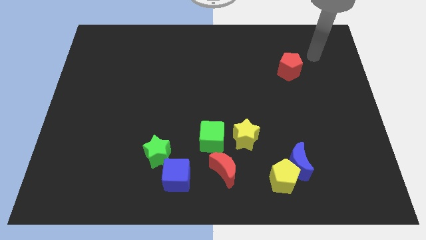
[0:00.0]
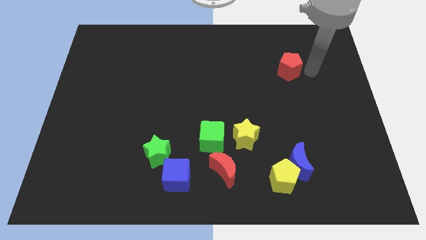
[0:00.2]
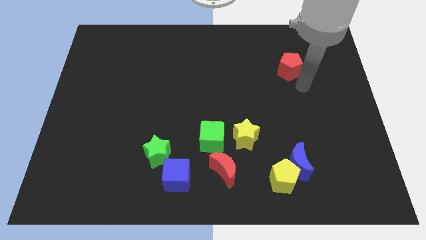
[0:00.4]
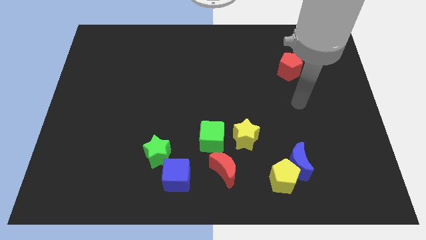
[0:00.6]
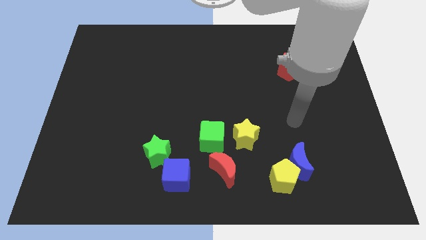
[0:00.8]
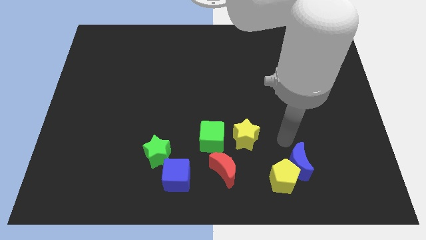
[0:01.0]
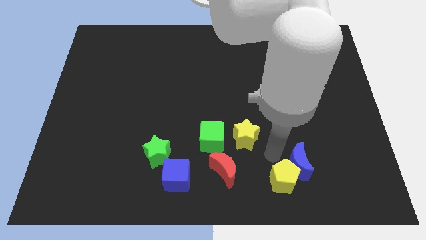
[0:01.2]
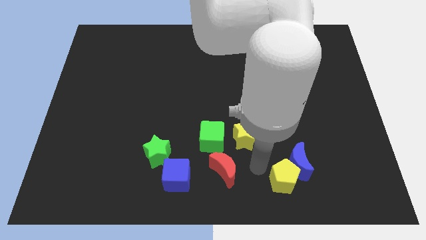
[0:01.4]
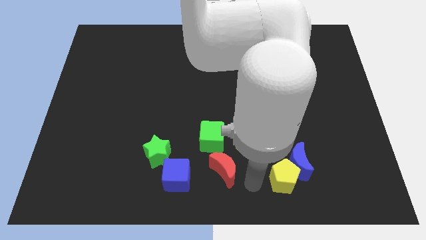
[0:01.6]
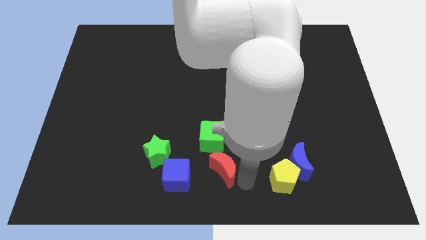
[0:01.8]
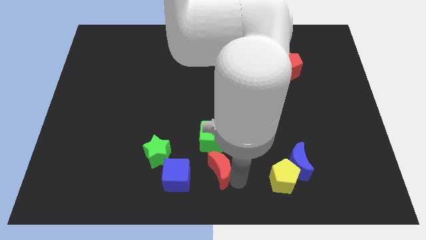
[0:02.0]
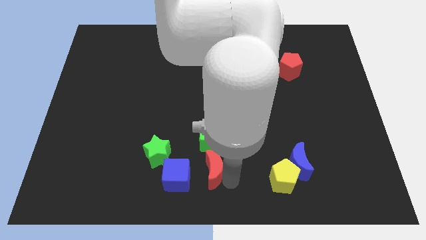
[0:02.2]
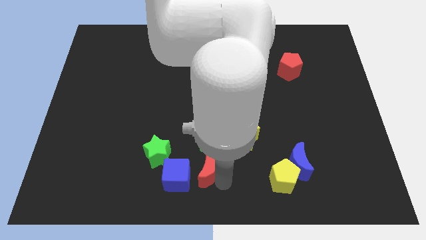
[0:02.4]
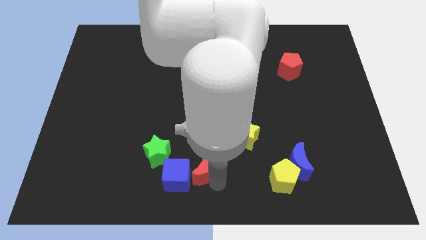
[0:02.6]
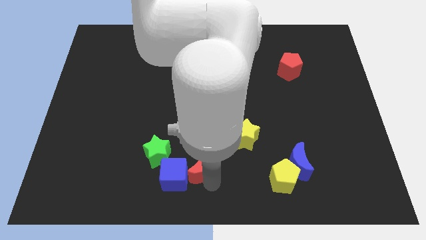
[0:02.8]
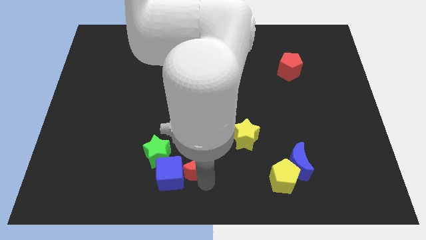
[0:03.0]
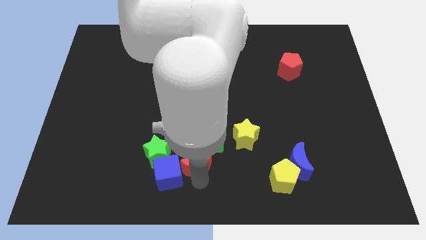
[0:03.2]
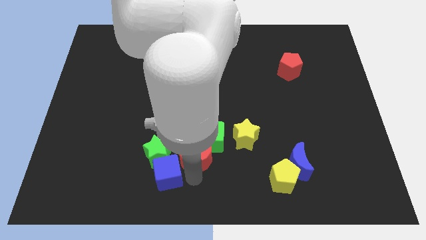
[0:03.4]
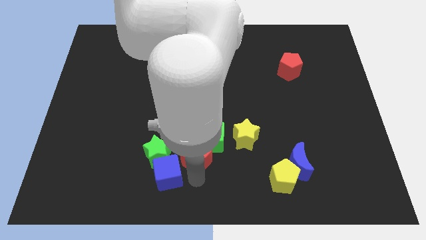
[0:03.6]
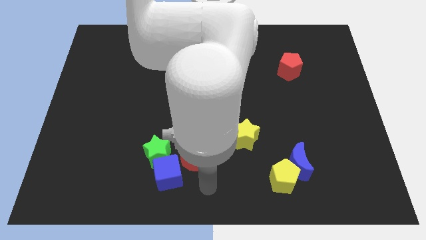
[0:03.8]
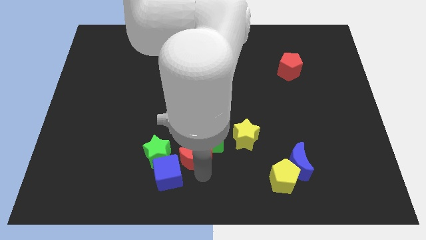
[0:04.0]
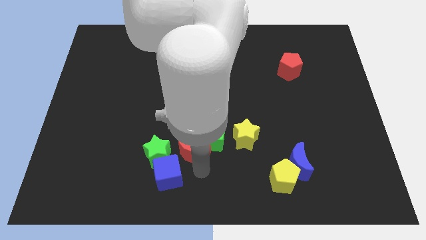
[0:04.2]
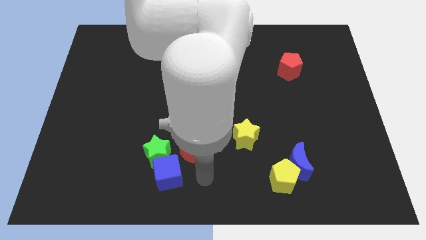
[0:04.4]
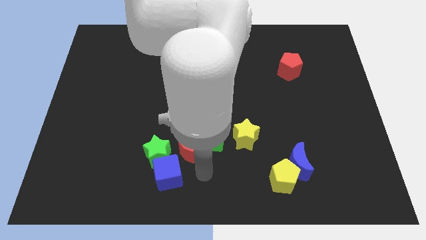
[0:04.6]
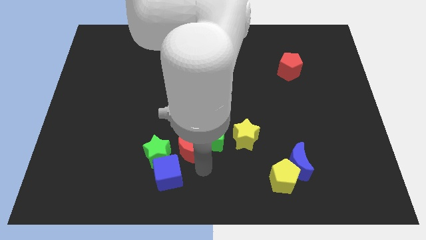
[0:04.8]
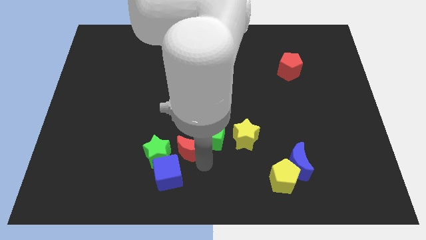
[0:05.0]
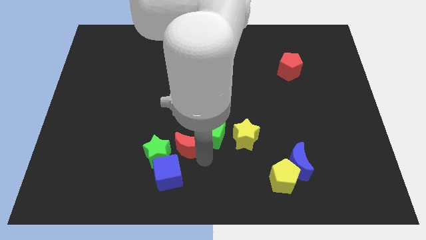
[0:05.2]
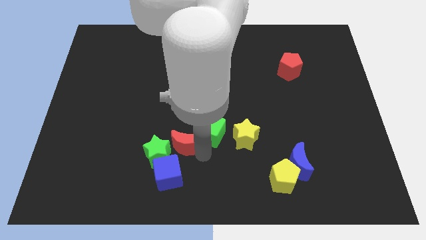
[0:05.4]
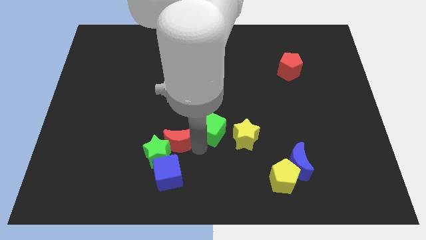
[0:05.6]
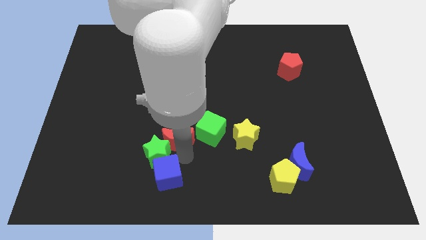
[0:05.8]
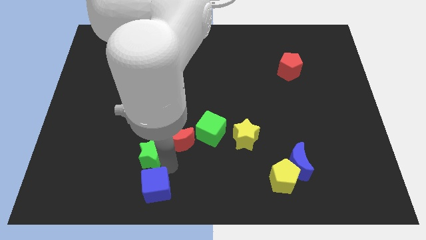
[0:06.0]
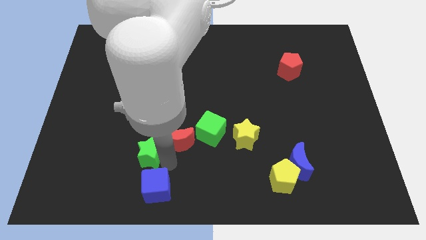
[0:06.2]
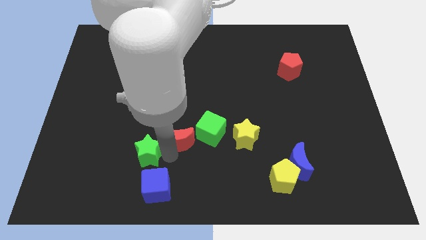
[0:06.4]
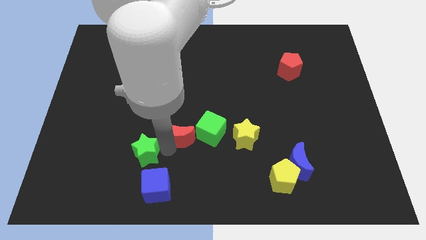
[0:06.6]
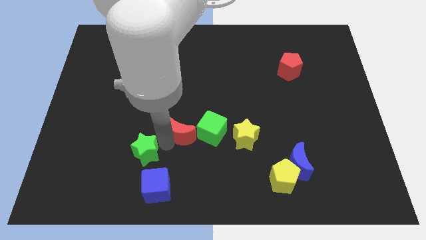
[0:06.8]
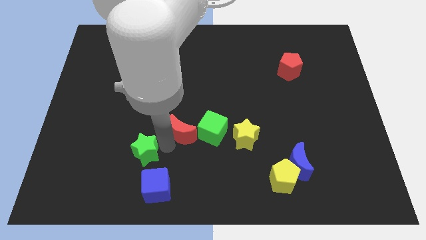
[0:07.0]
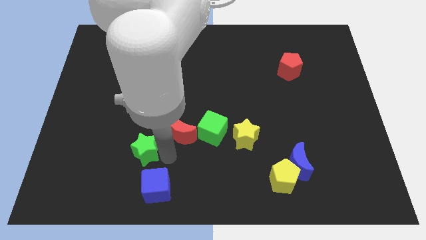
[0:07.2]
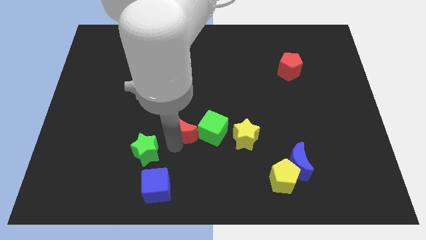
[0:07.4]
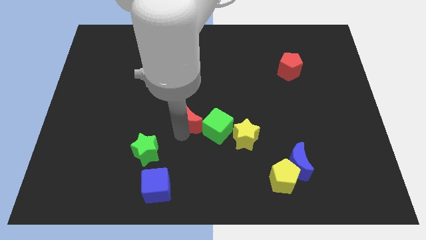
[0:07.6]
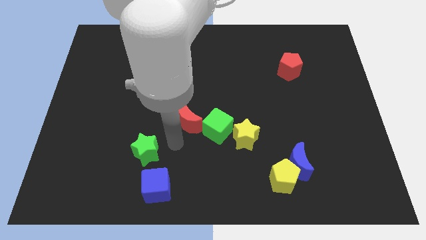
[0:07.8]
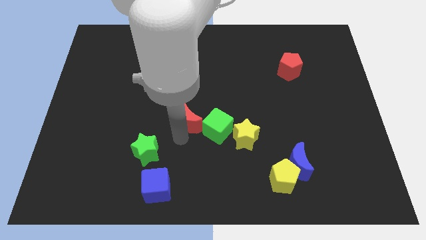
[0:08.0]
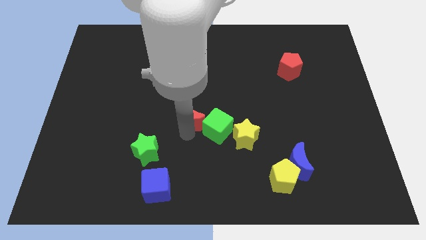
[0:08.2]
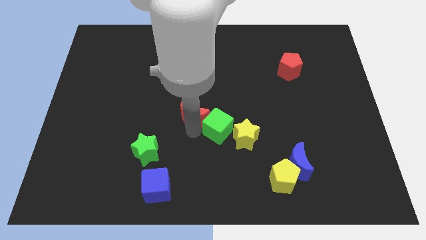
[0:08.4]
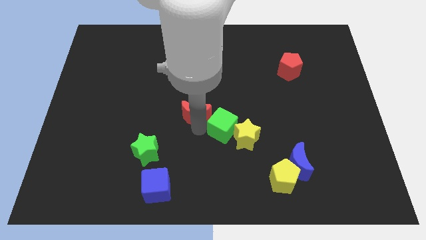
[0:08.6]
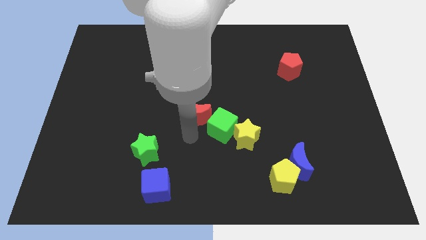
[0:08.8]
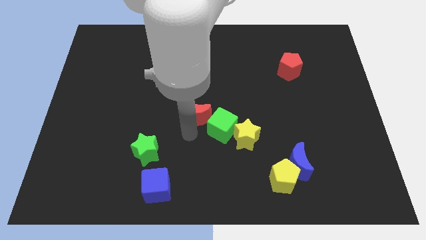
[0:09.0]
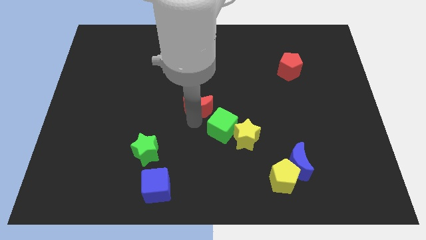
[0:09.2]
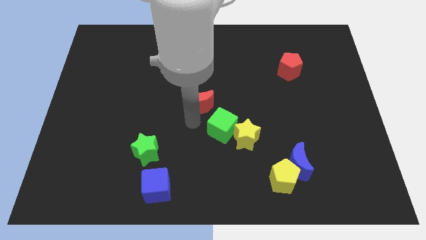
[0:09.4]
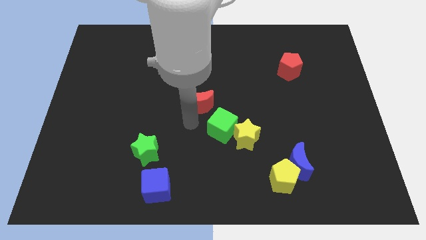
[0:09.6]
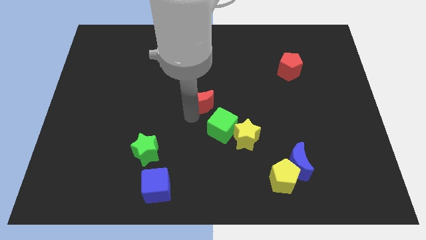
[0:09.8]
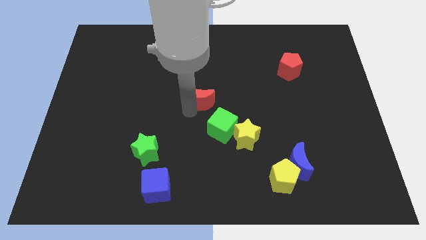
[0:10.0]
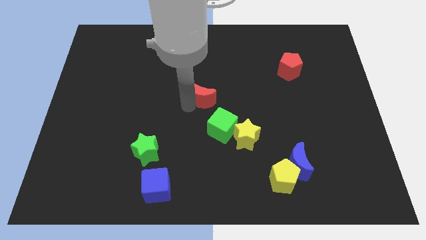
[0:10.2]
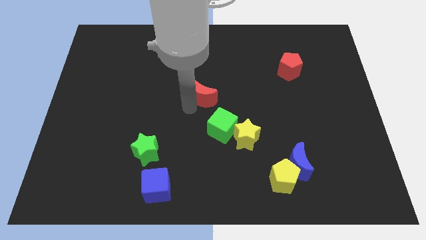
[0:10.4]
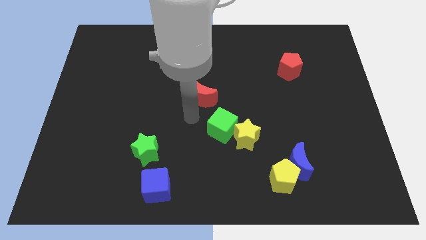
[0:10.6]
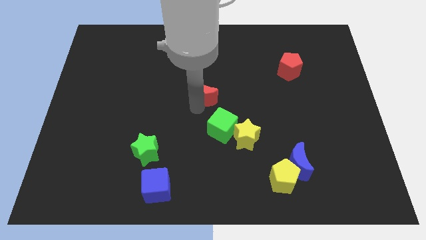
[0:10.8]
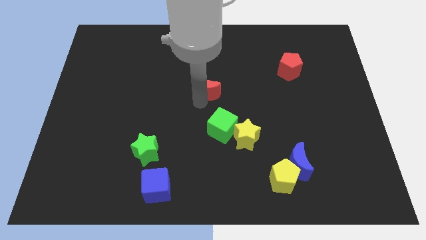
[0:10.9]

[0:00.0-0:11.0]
slide the red moon upwards

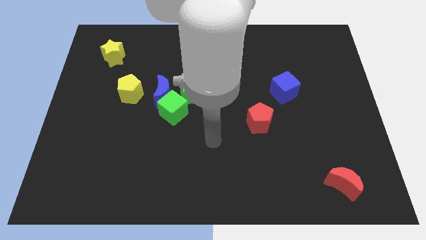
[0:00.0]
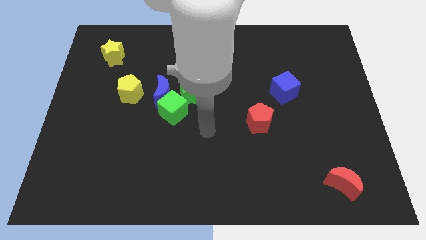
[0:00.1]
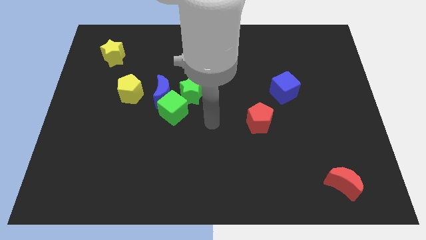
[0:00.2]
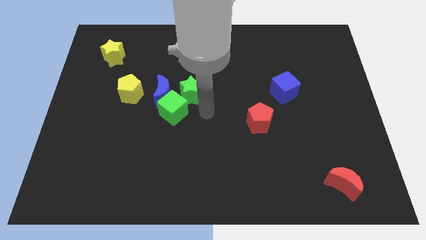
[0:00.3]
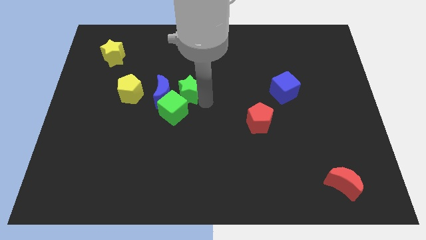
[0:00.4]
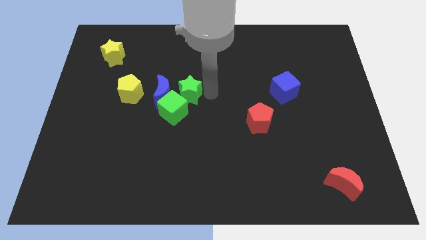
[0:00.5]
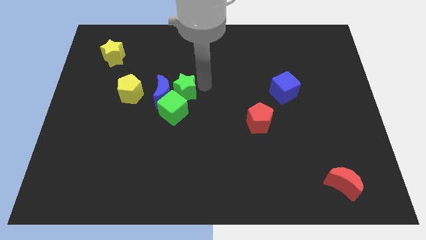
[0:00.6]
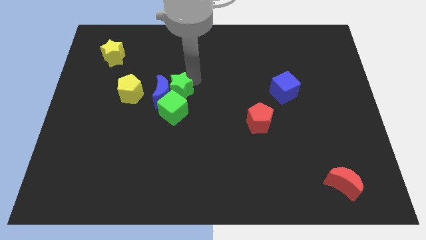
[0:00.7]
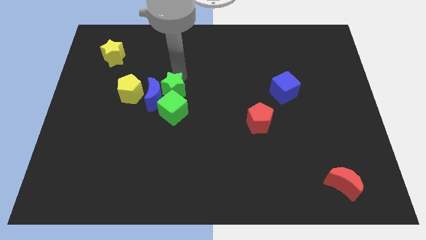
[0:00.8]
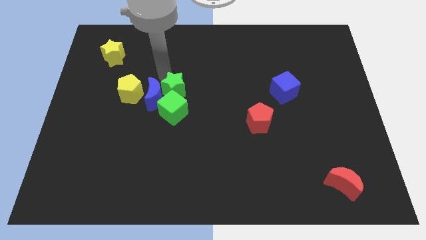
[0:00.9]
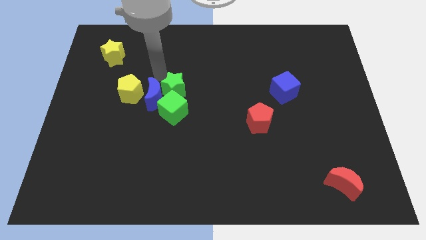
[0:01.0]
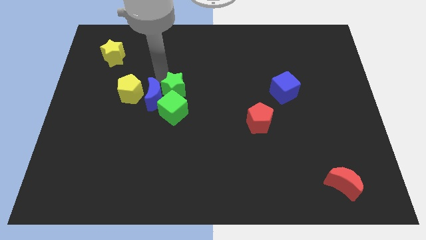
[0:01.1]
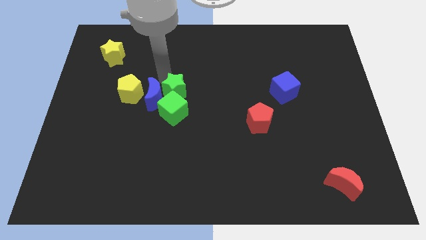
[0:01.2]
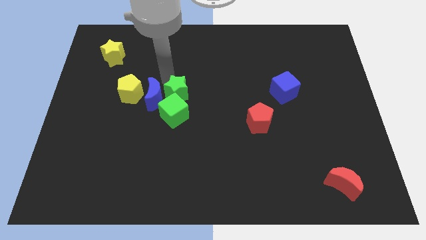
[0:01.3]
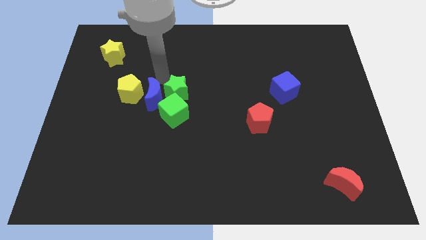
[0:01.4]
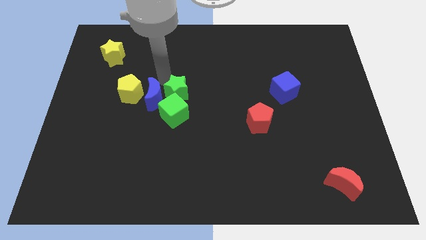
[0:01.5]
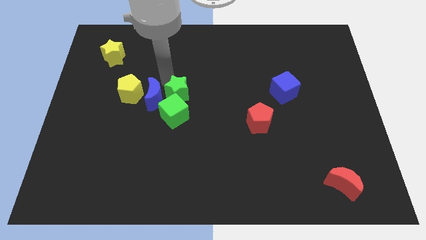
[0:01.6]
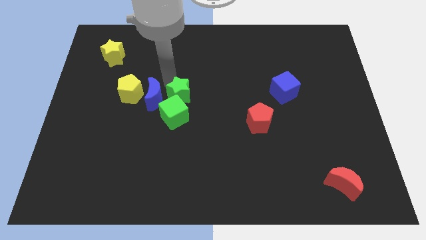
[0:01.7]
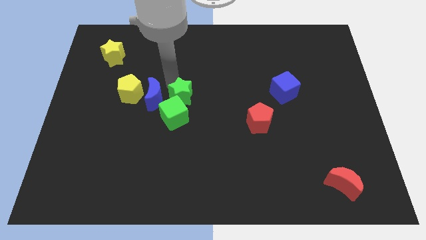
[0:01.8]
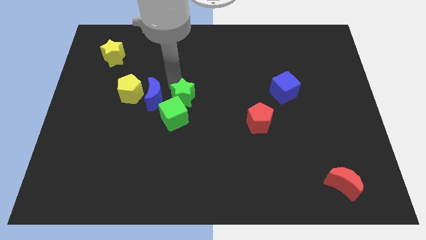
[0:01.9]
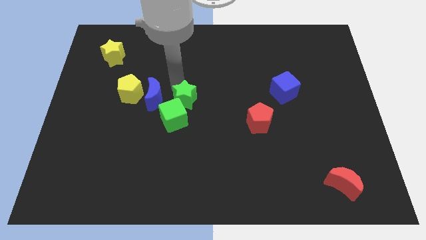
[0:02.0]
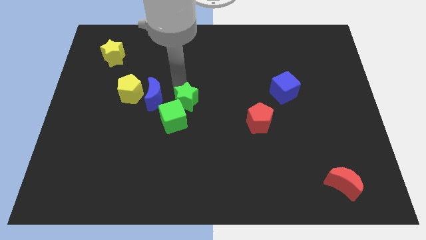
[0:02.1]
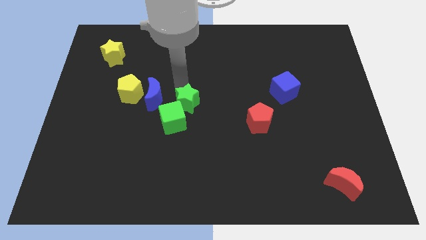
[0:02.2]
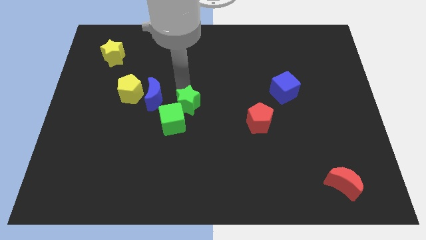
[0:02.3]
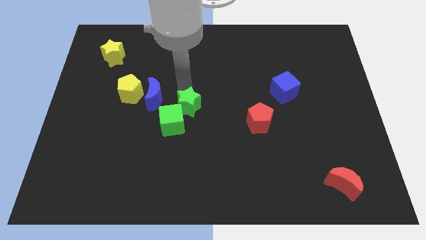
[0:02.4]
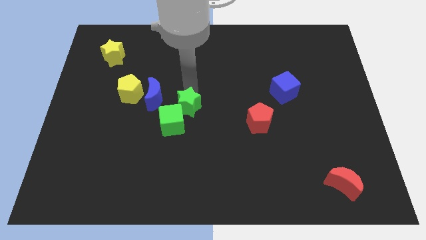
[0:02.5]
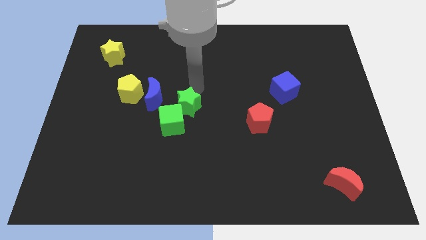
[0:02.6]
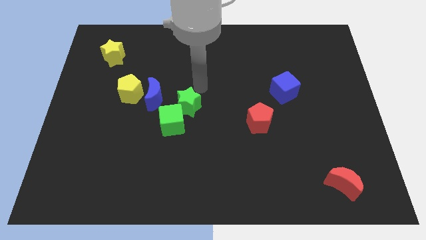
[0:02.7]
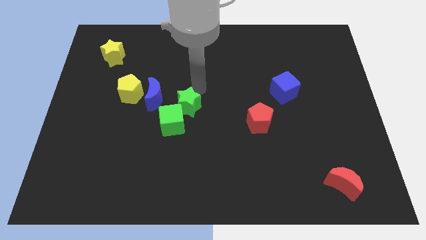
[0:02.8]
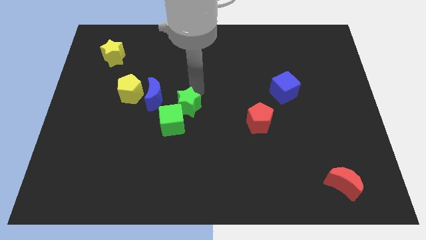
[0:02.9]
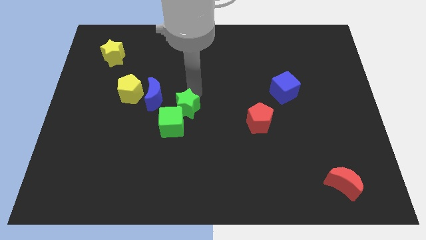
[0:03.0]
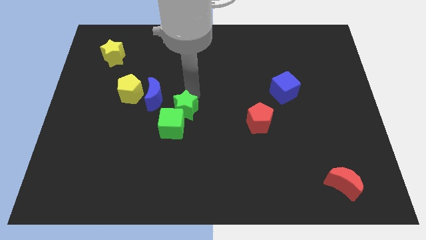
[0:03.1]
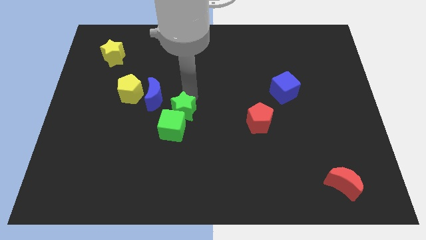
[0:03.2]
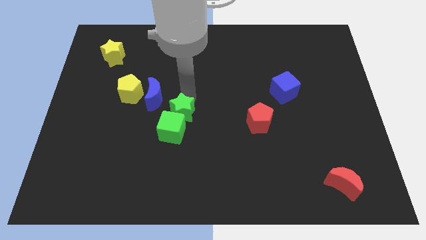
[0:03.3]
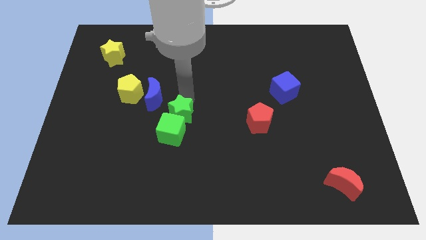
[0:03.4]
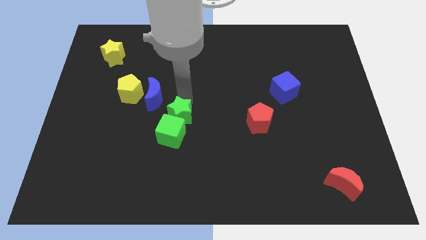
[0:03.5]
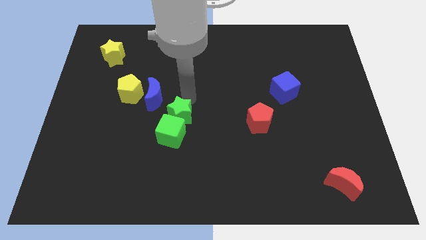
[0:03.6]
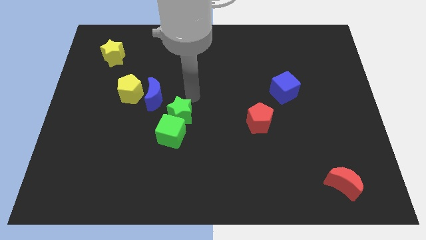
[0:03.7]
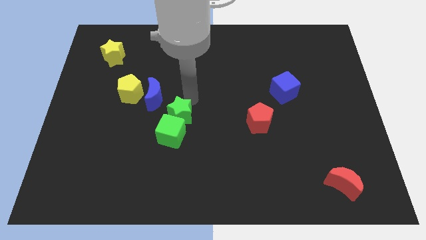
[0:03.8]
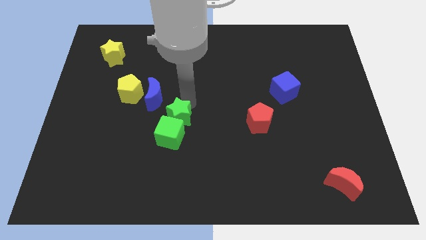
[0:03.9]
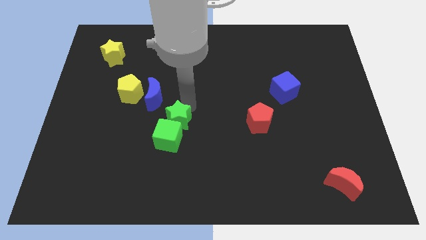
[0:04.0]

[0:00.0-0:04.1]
slightly move the green star downwards and to the left diagonally
